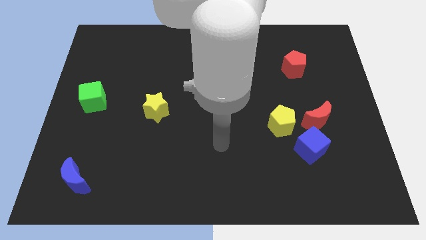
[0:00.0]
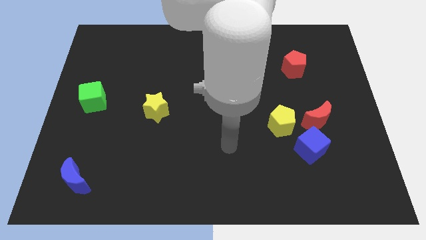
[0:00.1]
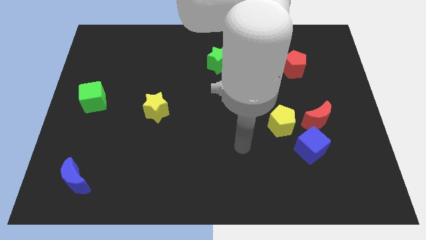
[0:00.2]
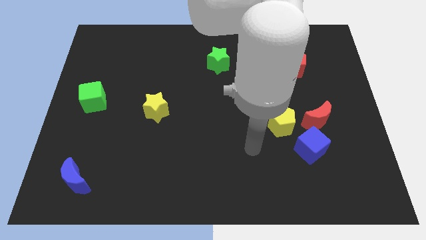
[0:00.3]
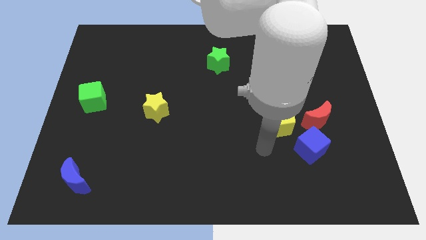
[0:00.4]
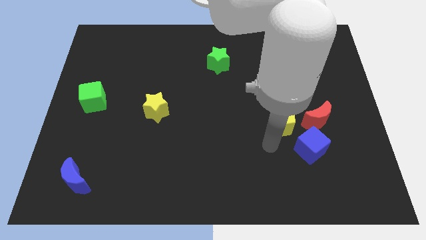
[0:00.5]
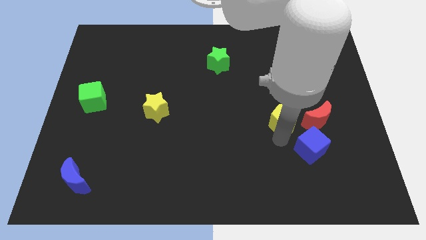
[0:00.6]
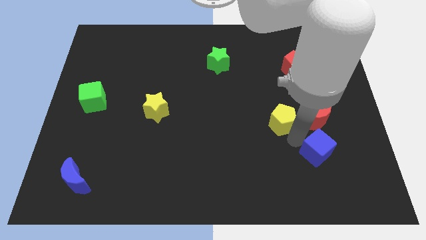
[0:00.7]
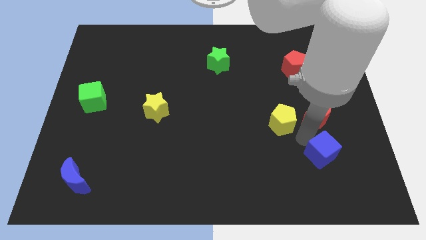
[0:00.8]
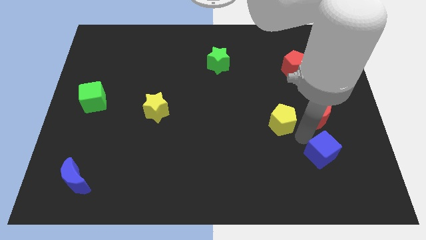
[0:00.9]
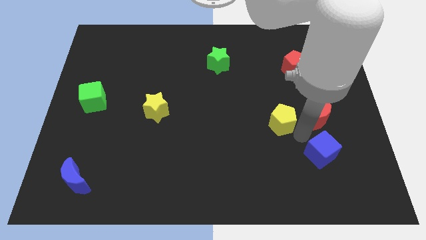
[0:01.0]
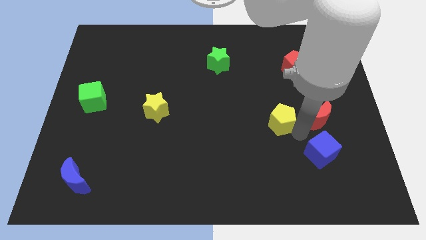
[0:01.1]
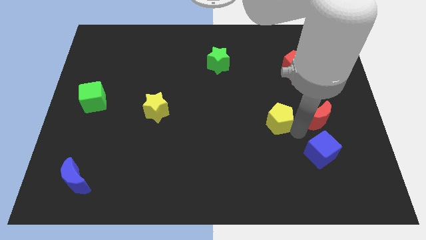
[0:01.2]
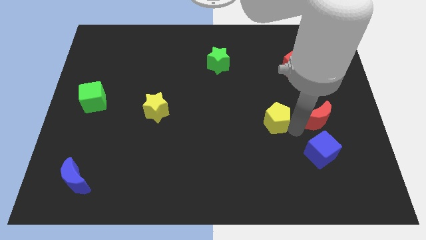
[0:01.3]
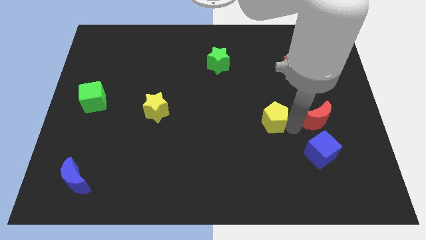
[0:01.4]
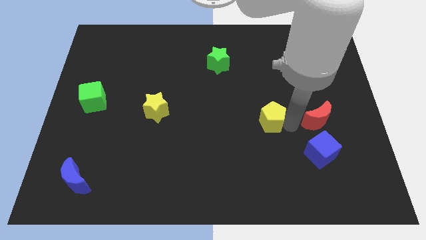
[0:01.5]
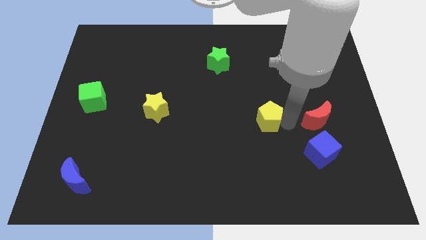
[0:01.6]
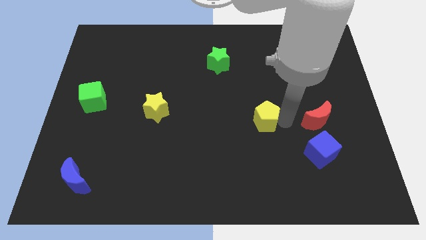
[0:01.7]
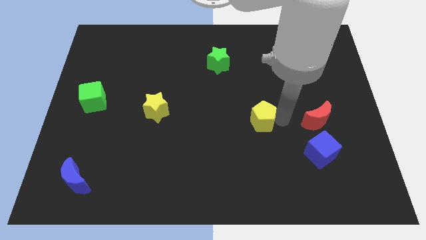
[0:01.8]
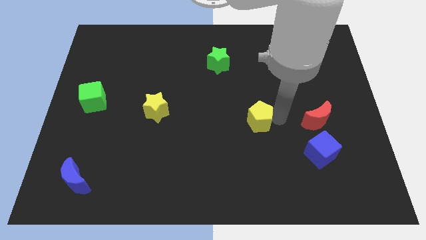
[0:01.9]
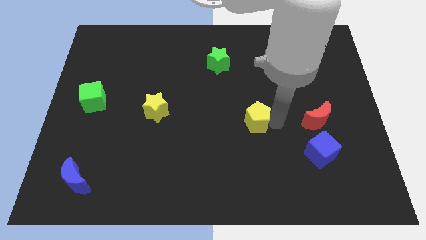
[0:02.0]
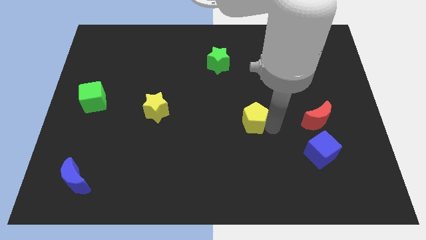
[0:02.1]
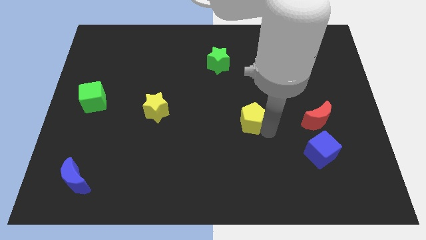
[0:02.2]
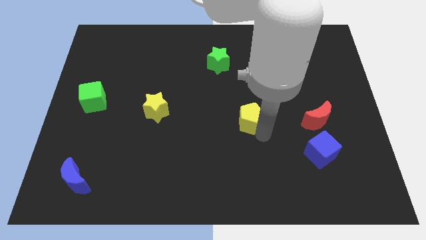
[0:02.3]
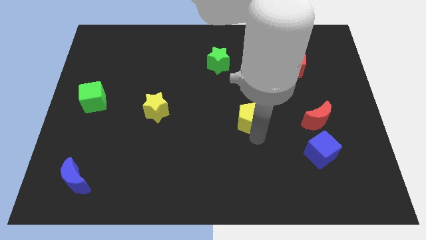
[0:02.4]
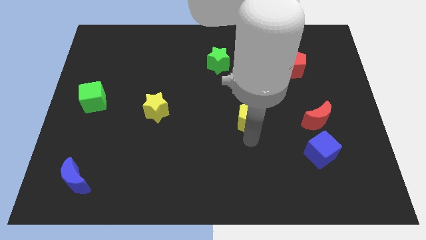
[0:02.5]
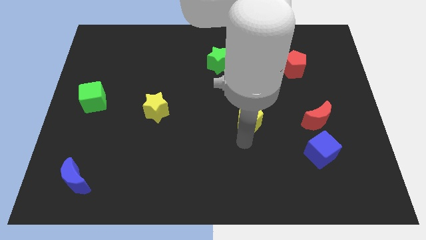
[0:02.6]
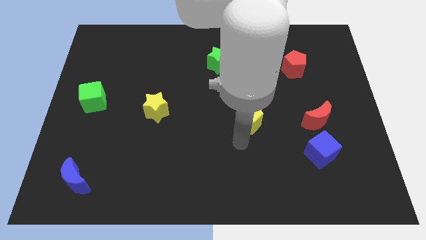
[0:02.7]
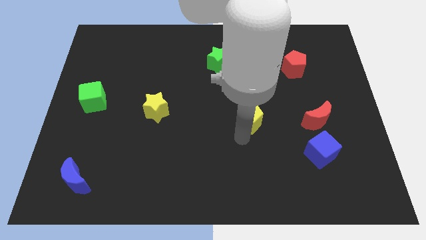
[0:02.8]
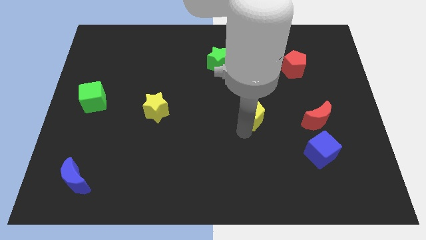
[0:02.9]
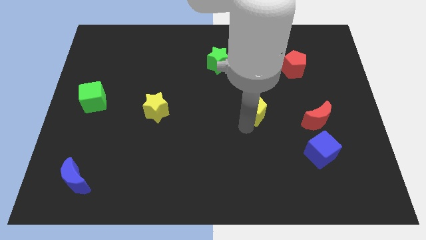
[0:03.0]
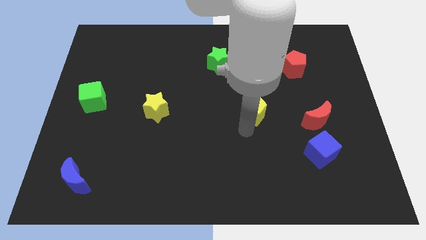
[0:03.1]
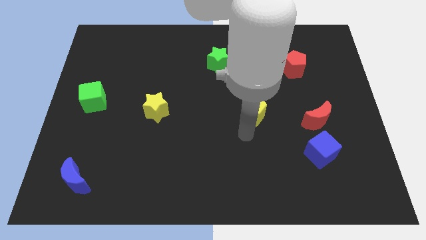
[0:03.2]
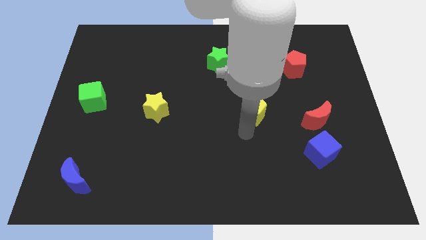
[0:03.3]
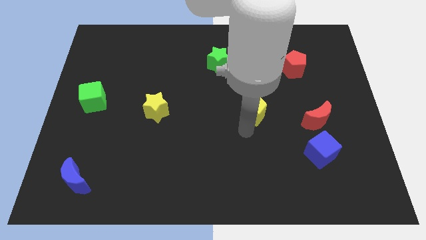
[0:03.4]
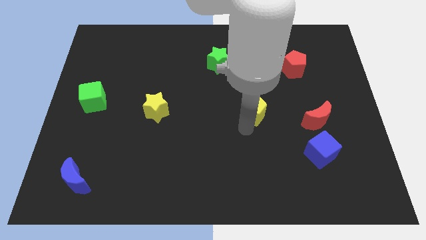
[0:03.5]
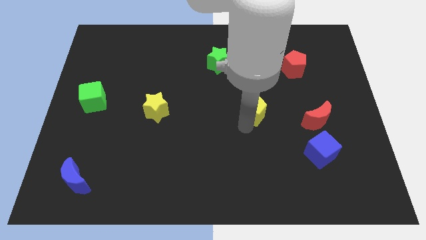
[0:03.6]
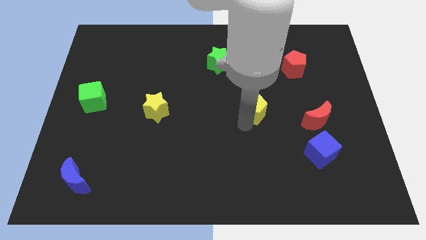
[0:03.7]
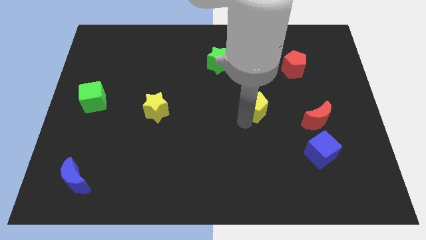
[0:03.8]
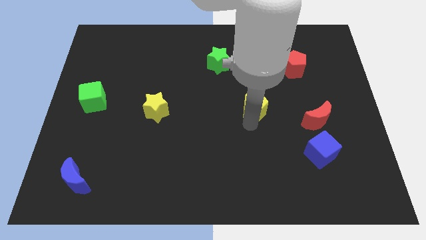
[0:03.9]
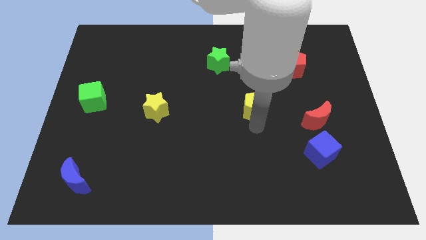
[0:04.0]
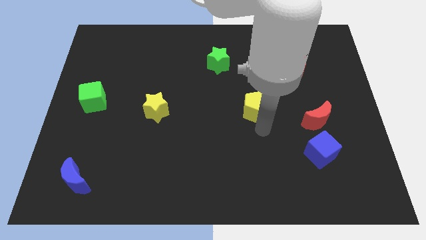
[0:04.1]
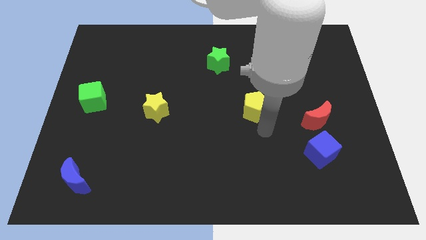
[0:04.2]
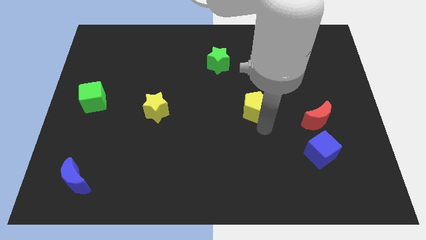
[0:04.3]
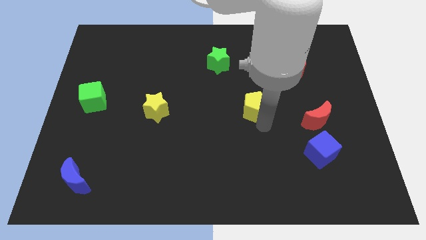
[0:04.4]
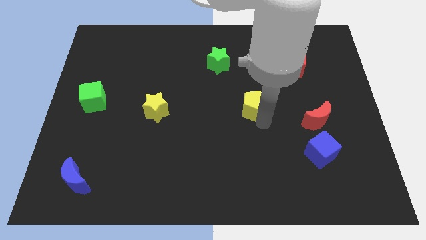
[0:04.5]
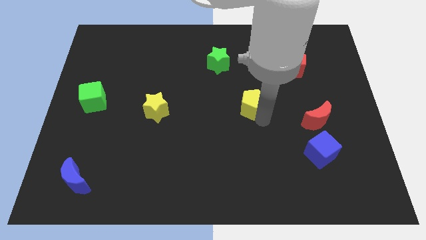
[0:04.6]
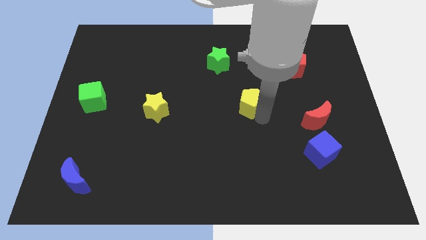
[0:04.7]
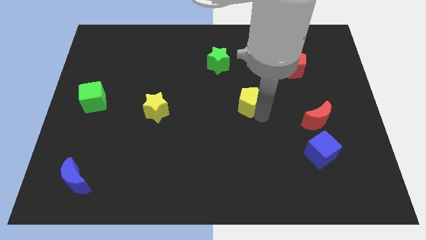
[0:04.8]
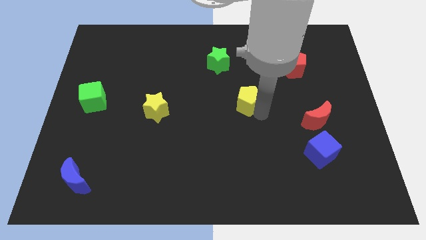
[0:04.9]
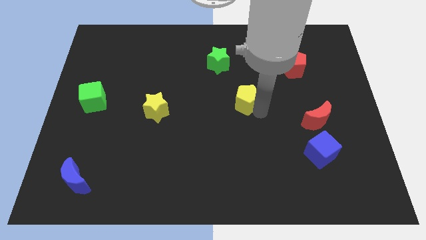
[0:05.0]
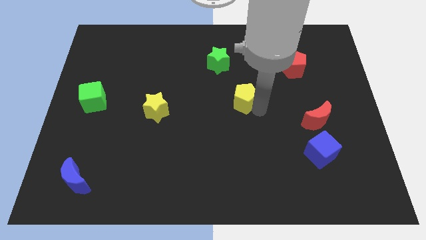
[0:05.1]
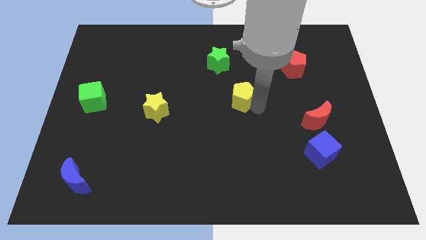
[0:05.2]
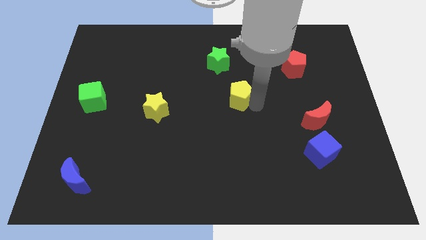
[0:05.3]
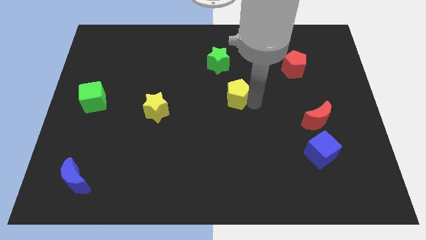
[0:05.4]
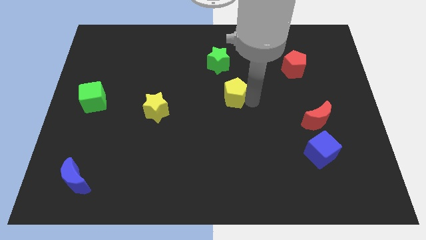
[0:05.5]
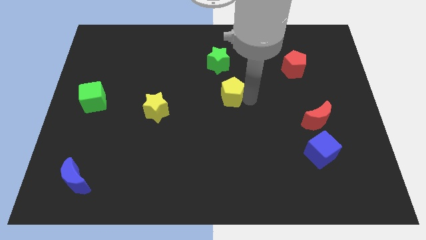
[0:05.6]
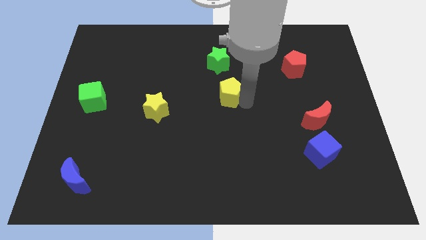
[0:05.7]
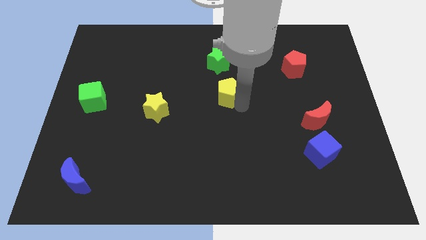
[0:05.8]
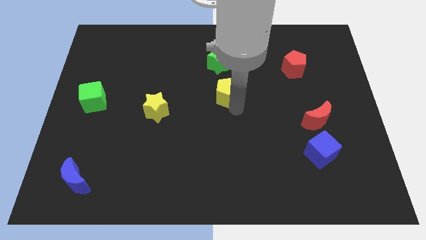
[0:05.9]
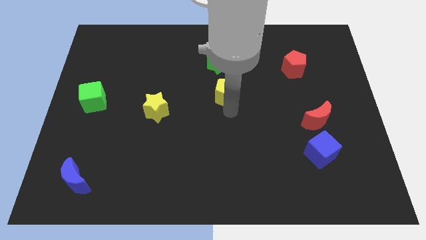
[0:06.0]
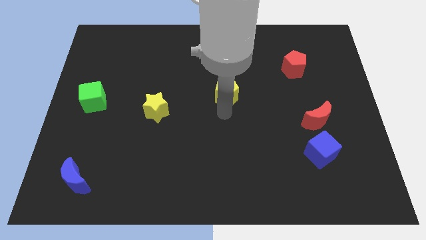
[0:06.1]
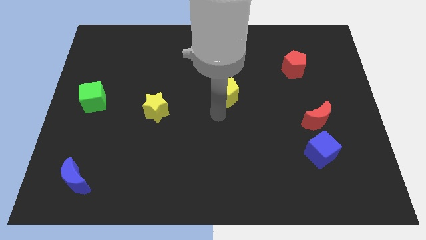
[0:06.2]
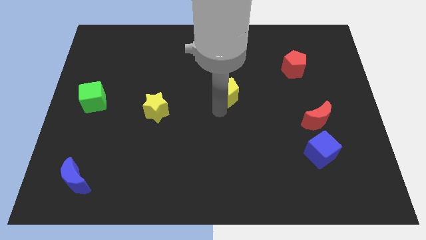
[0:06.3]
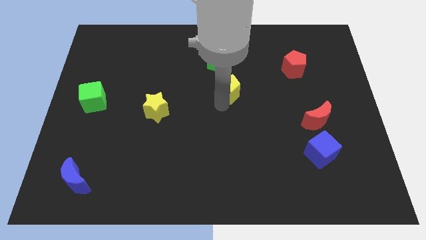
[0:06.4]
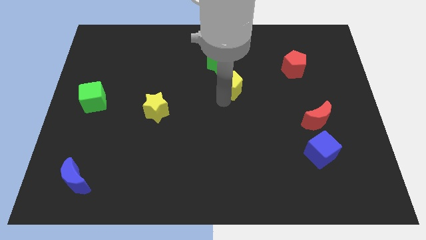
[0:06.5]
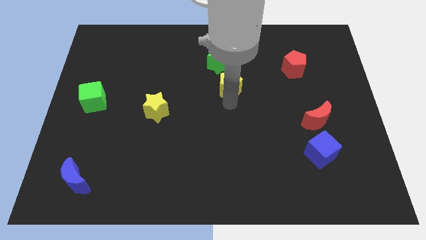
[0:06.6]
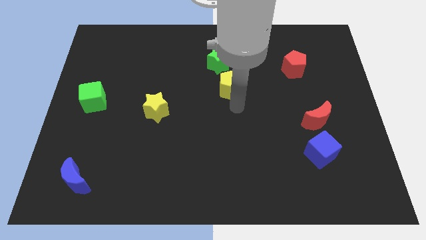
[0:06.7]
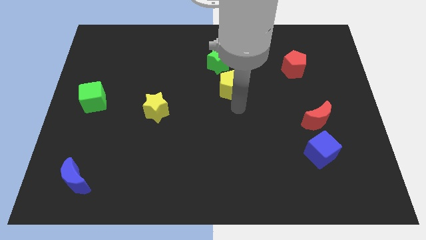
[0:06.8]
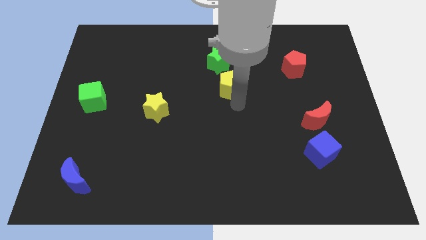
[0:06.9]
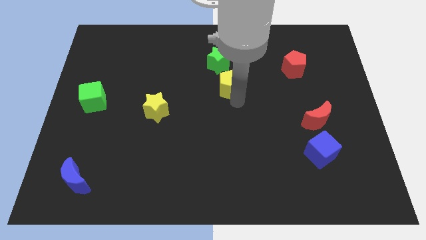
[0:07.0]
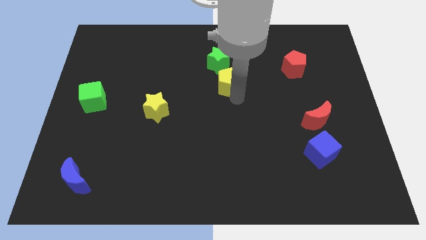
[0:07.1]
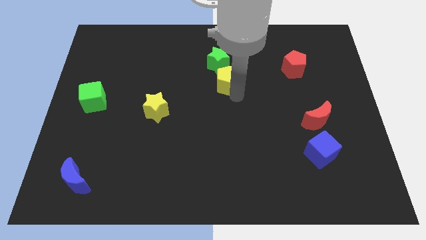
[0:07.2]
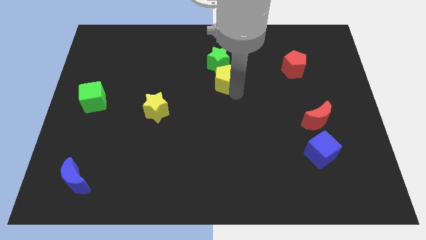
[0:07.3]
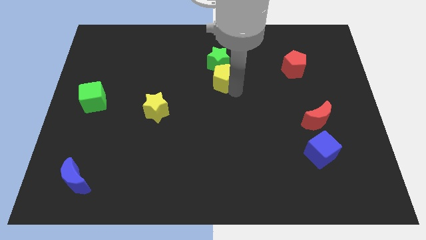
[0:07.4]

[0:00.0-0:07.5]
slide the yellow pentagon towards the green star

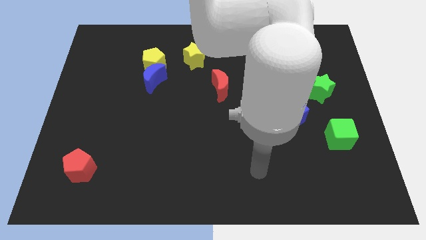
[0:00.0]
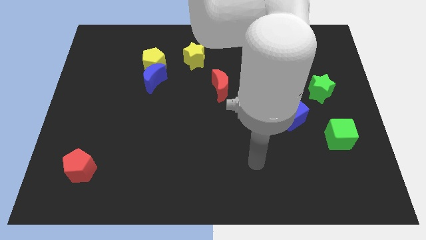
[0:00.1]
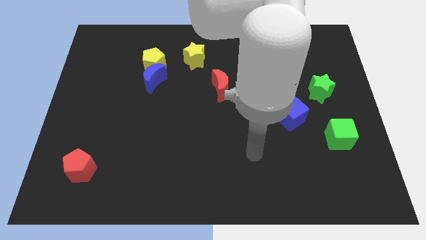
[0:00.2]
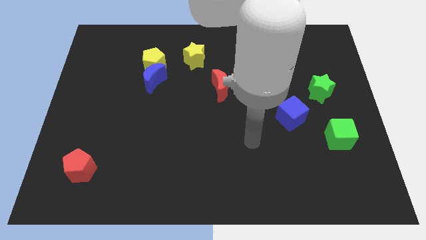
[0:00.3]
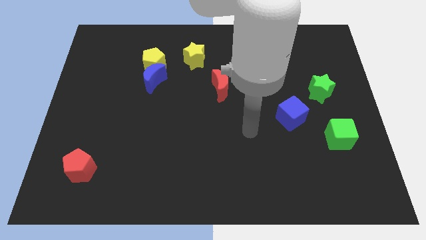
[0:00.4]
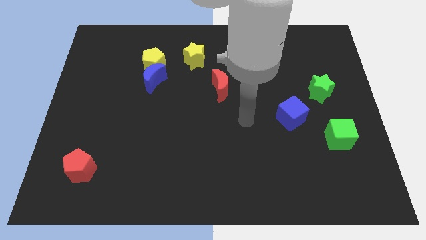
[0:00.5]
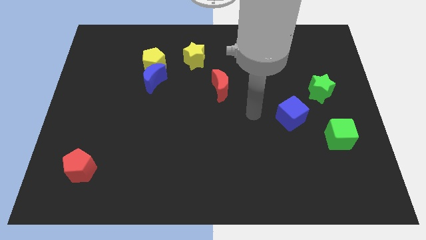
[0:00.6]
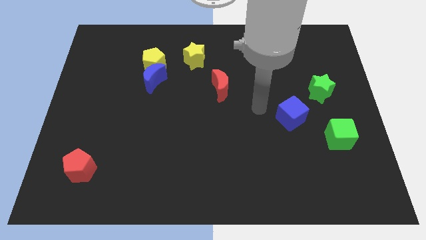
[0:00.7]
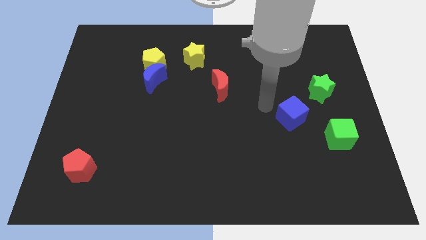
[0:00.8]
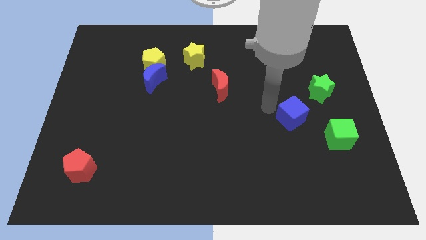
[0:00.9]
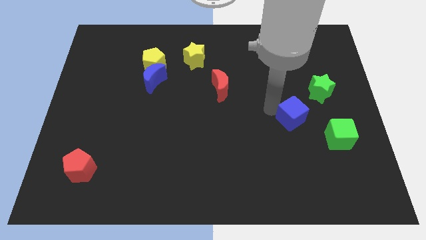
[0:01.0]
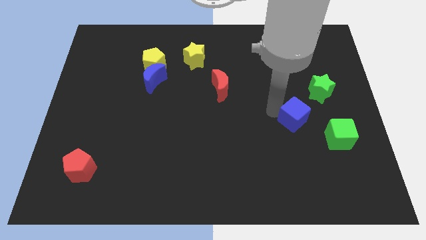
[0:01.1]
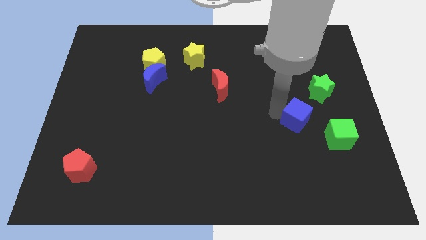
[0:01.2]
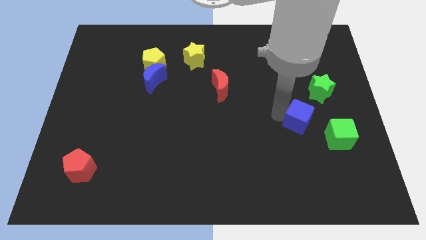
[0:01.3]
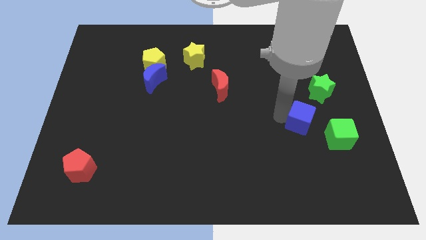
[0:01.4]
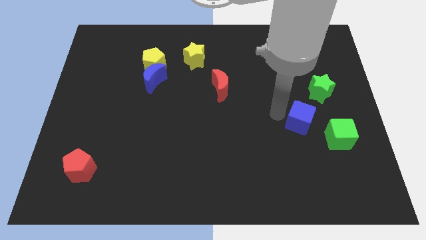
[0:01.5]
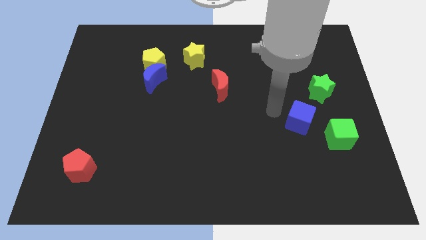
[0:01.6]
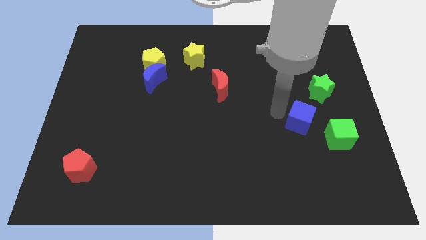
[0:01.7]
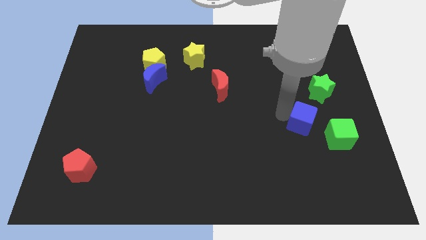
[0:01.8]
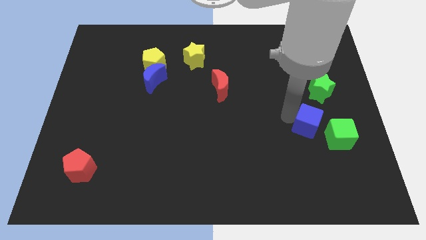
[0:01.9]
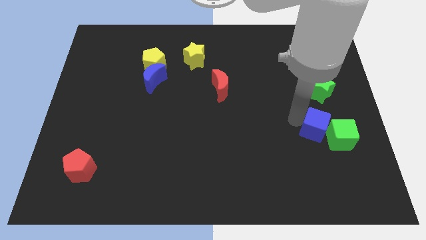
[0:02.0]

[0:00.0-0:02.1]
slide the blue cube close to the green cube
